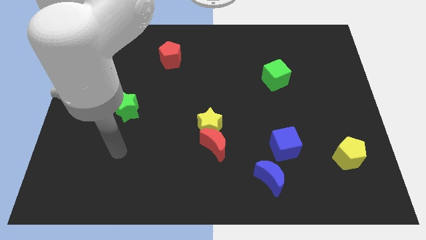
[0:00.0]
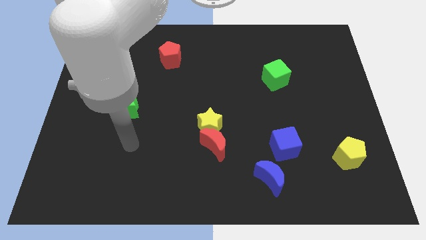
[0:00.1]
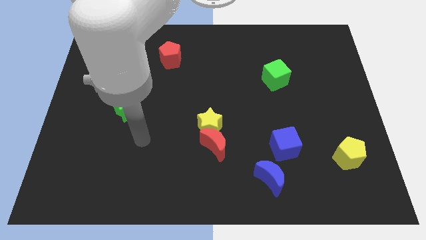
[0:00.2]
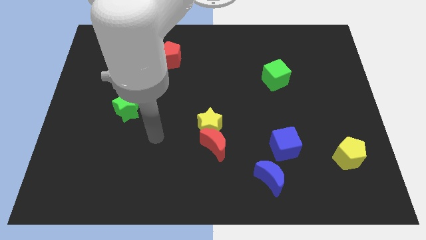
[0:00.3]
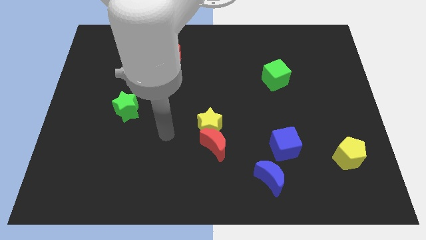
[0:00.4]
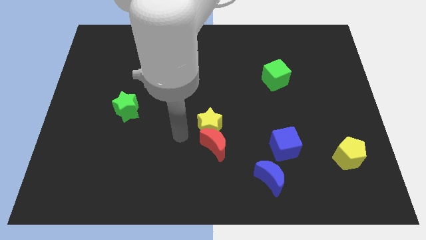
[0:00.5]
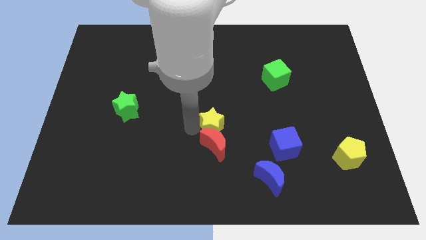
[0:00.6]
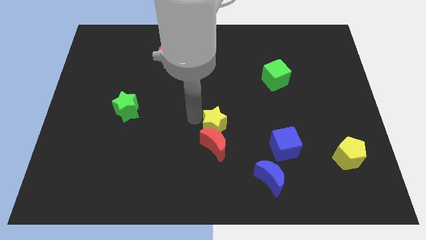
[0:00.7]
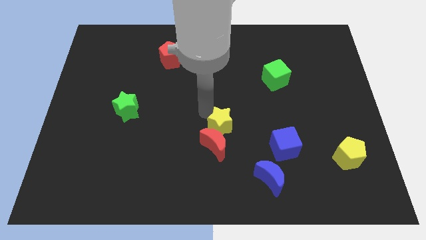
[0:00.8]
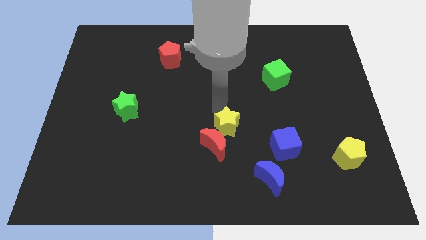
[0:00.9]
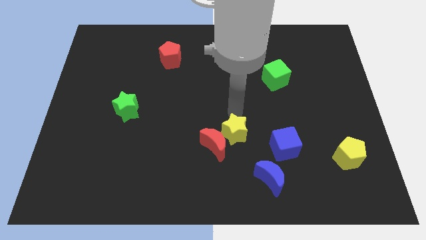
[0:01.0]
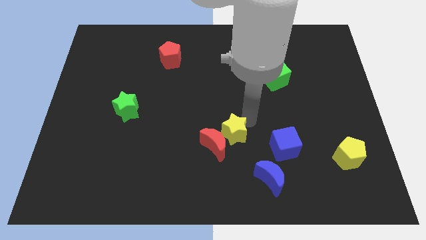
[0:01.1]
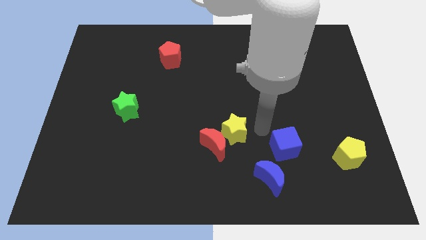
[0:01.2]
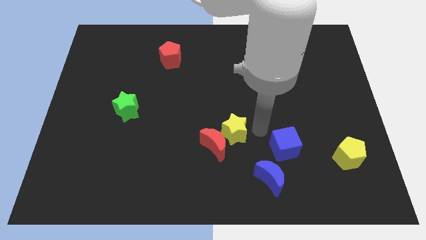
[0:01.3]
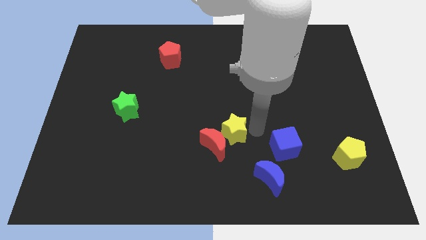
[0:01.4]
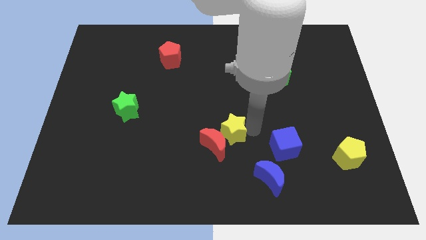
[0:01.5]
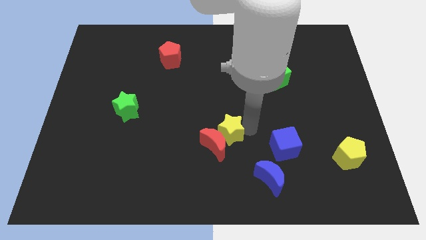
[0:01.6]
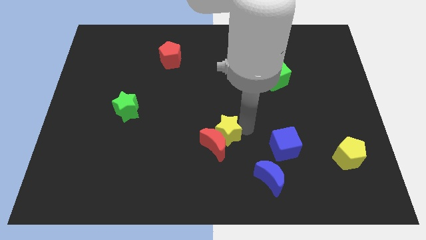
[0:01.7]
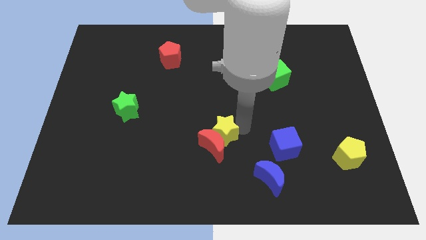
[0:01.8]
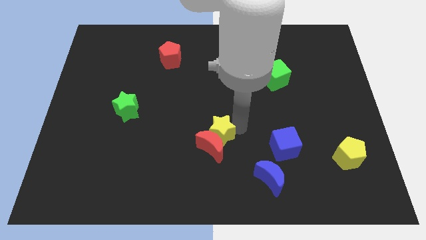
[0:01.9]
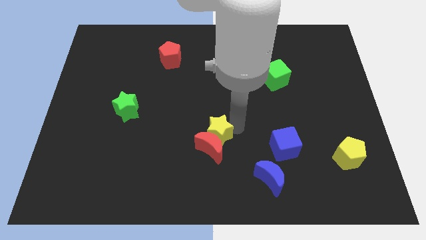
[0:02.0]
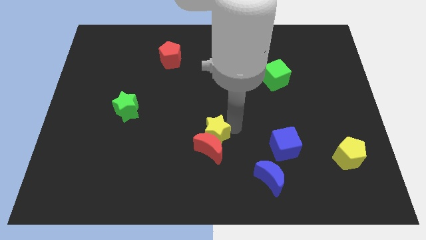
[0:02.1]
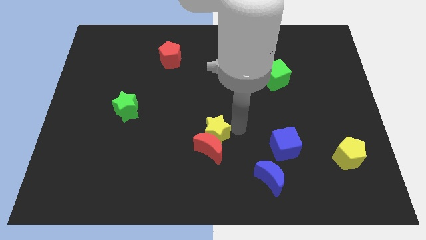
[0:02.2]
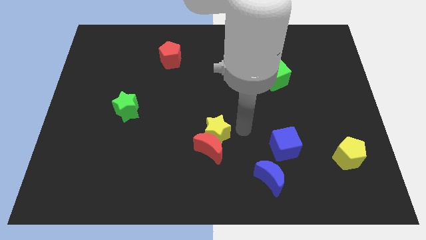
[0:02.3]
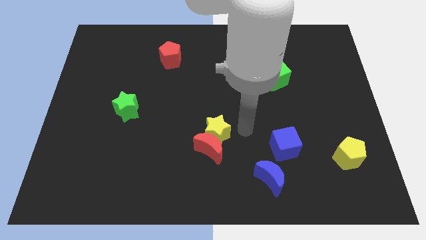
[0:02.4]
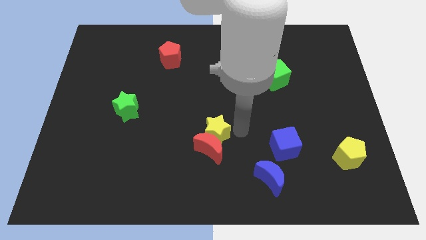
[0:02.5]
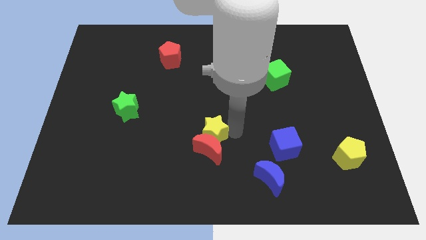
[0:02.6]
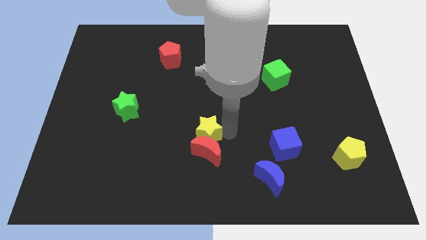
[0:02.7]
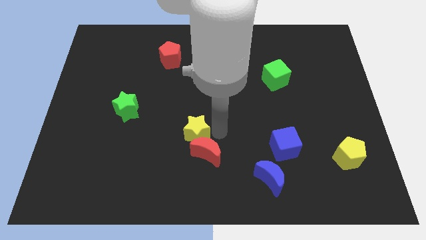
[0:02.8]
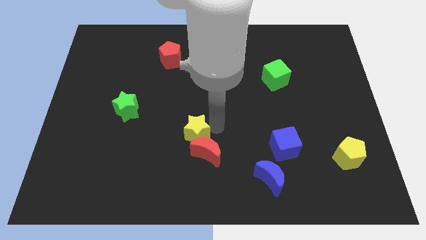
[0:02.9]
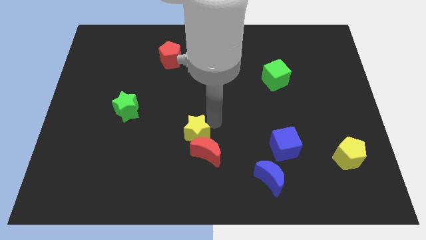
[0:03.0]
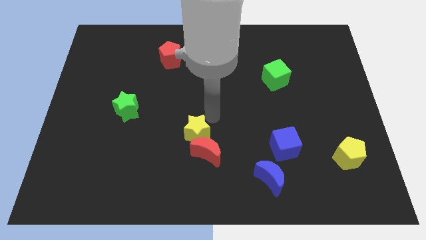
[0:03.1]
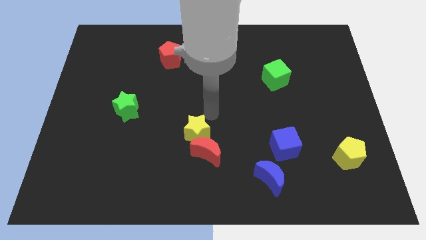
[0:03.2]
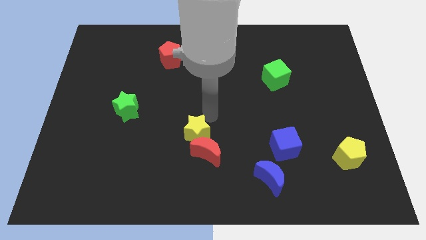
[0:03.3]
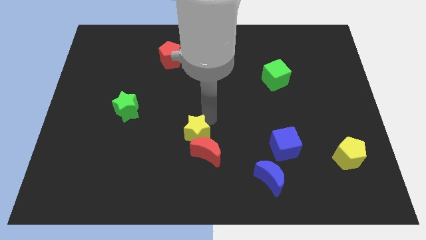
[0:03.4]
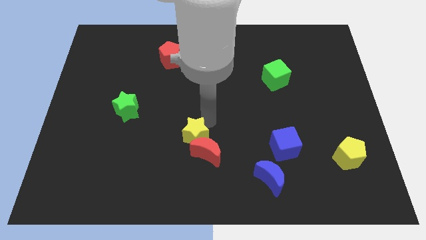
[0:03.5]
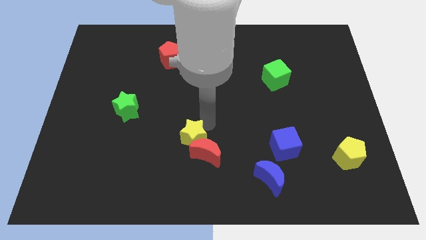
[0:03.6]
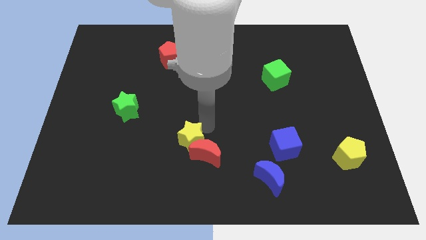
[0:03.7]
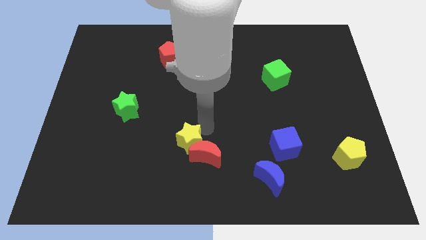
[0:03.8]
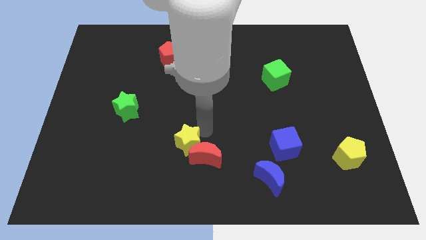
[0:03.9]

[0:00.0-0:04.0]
slide the yellow star somewhat diagonally downwards and left

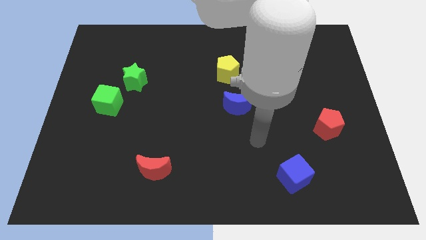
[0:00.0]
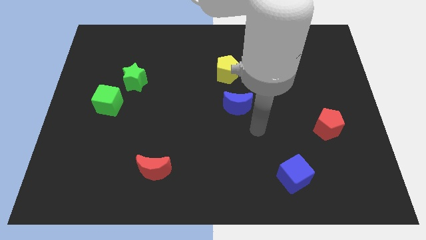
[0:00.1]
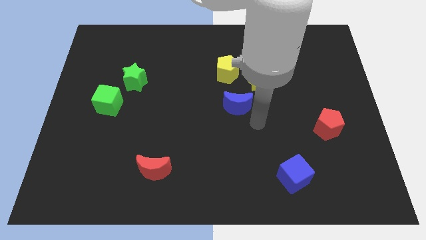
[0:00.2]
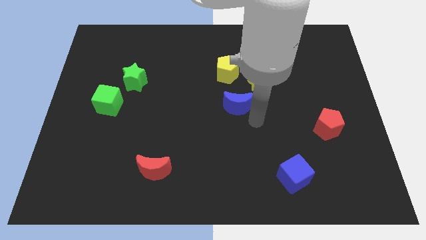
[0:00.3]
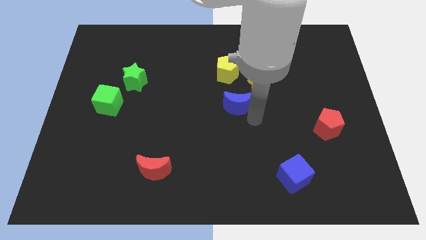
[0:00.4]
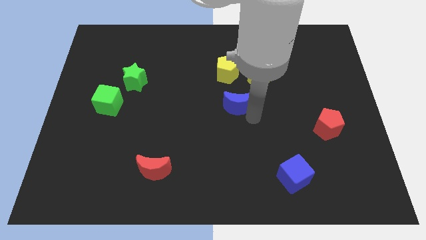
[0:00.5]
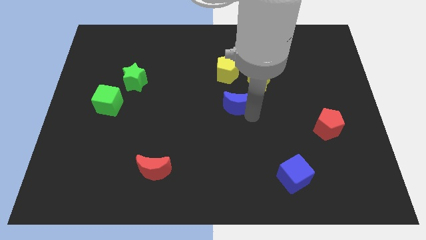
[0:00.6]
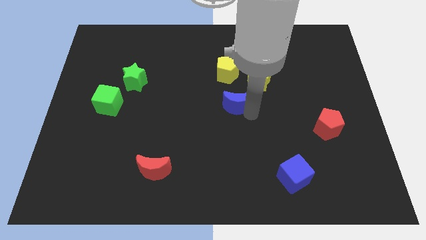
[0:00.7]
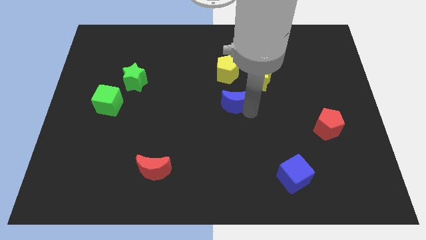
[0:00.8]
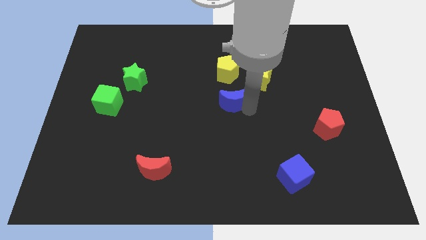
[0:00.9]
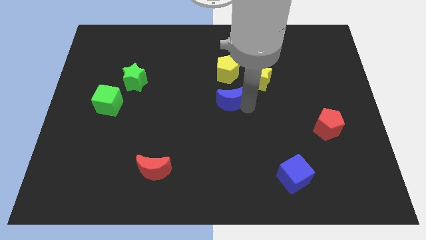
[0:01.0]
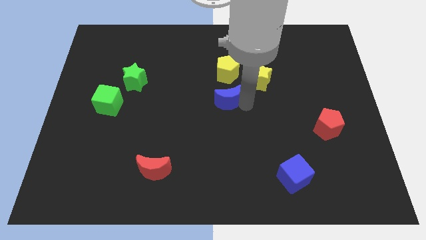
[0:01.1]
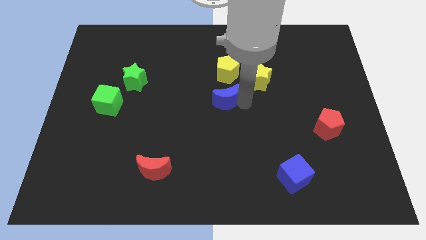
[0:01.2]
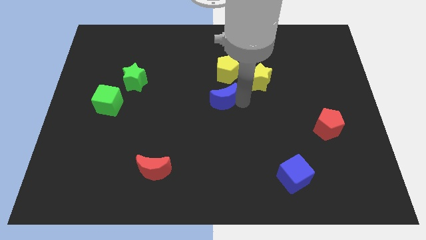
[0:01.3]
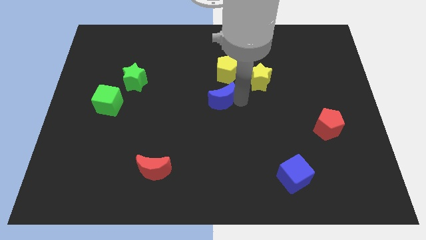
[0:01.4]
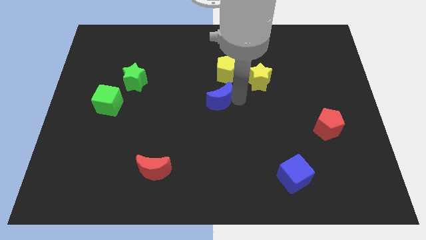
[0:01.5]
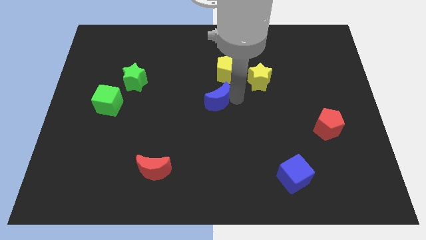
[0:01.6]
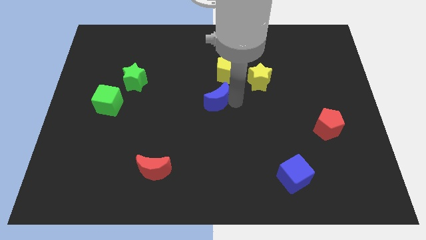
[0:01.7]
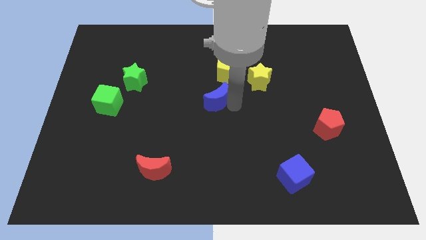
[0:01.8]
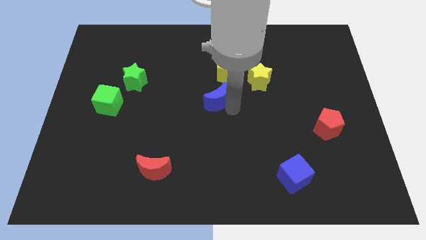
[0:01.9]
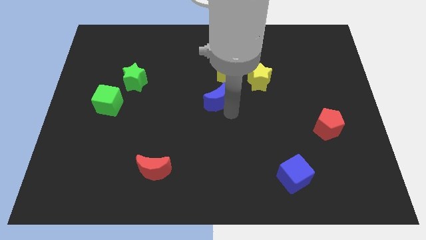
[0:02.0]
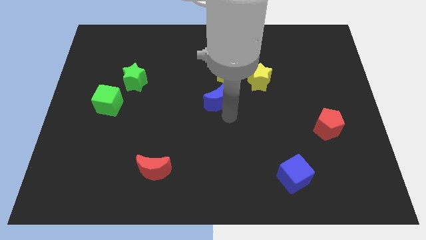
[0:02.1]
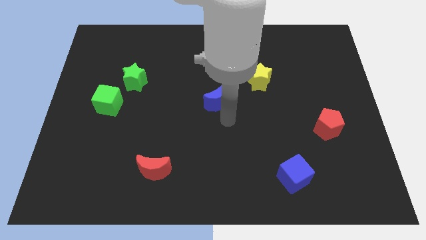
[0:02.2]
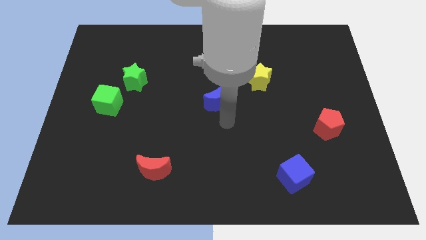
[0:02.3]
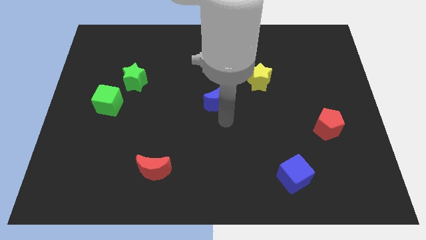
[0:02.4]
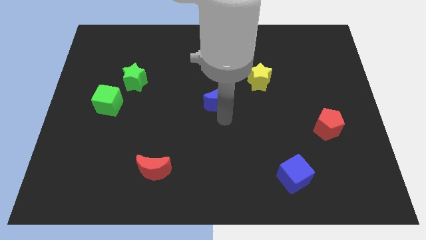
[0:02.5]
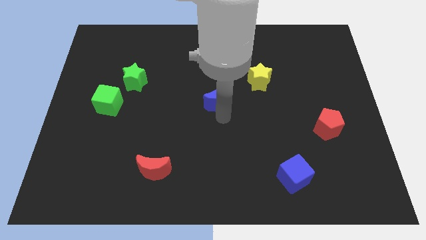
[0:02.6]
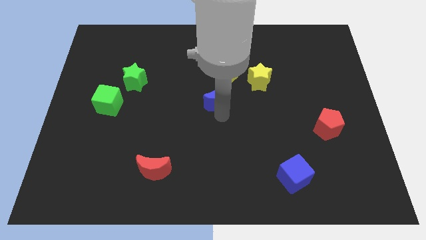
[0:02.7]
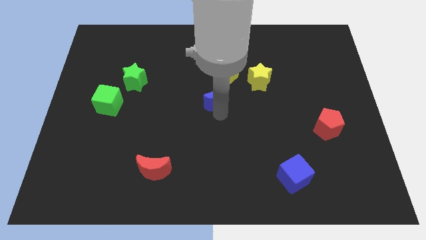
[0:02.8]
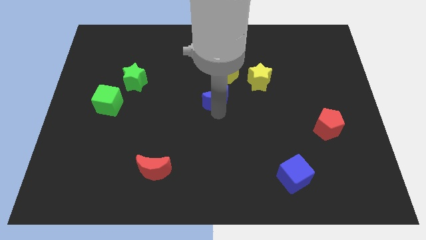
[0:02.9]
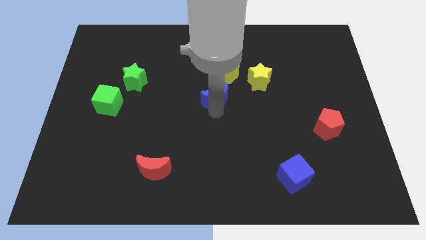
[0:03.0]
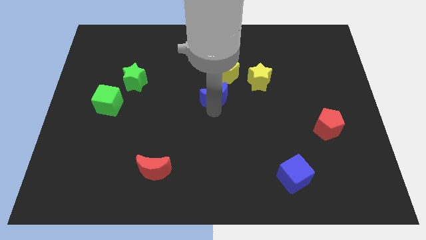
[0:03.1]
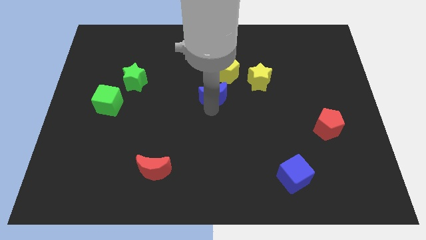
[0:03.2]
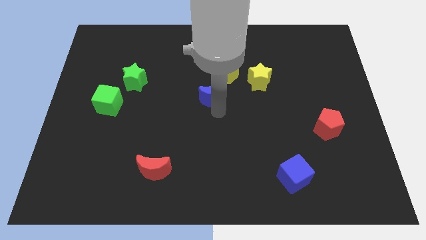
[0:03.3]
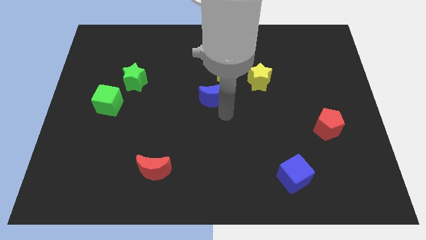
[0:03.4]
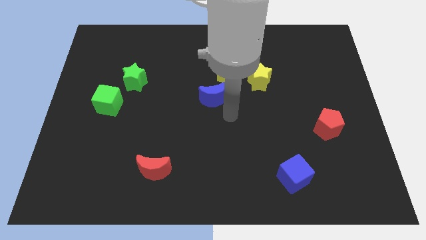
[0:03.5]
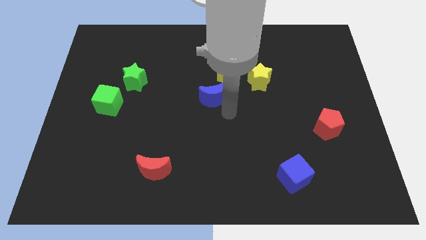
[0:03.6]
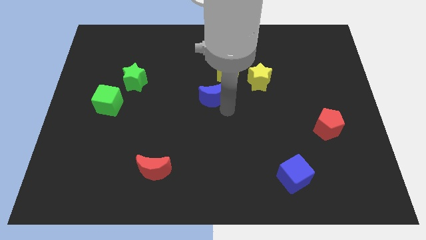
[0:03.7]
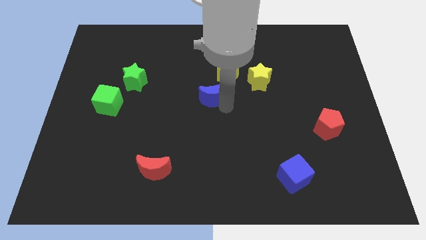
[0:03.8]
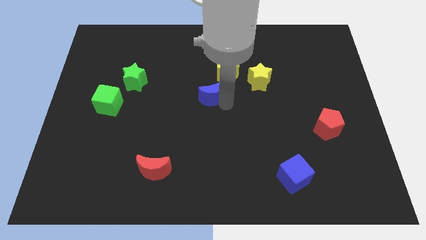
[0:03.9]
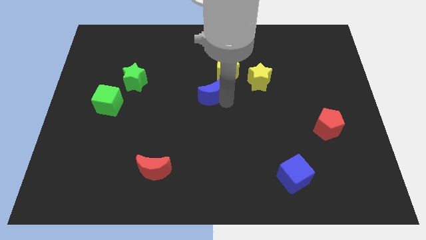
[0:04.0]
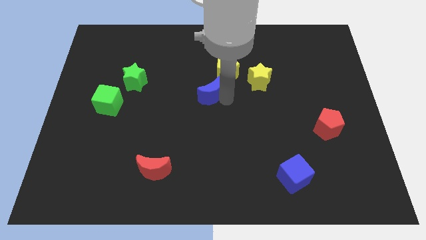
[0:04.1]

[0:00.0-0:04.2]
slightly move the blue moon up and to the left diagonally

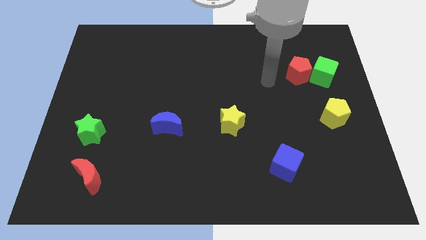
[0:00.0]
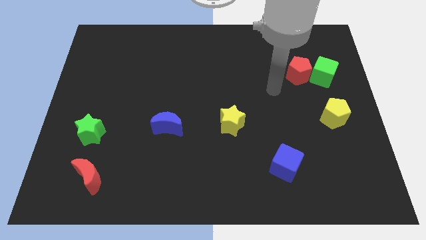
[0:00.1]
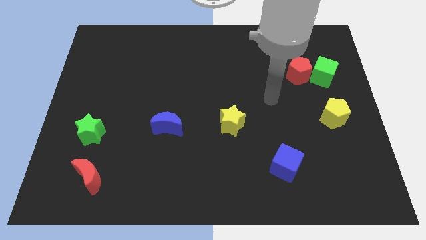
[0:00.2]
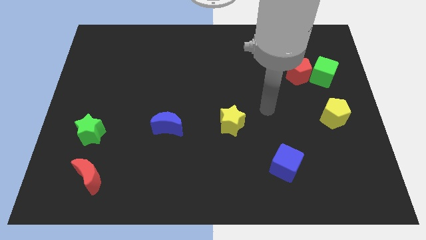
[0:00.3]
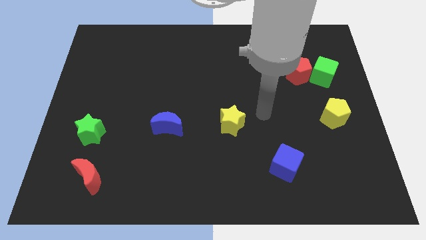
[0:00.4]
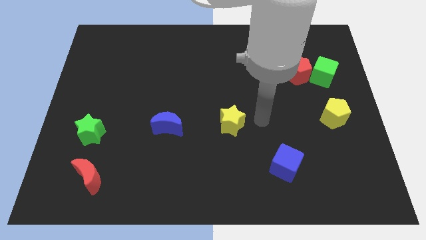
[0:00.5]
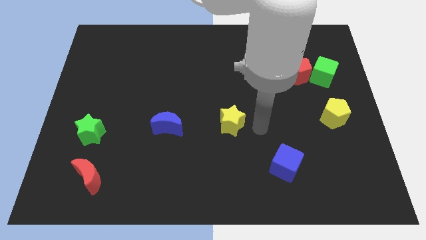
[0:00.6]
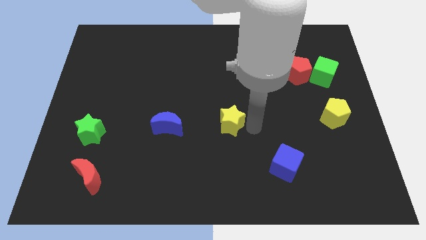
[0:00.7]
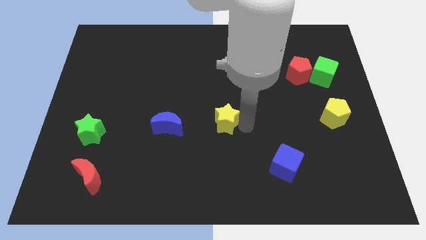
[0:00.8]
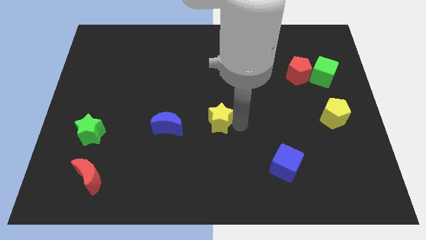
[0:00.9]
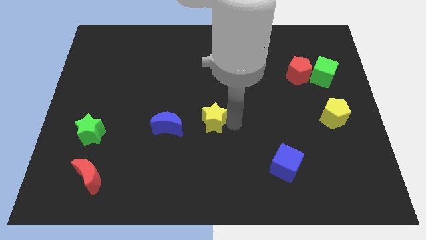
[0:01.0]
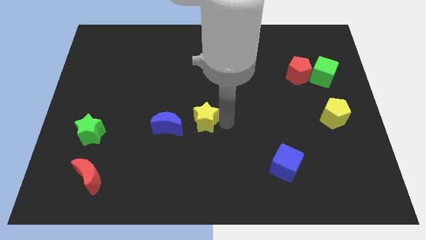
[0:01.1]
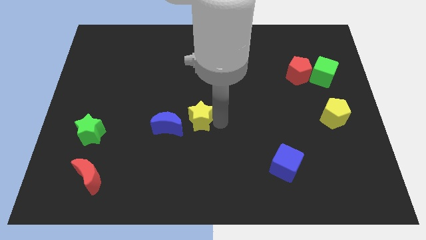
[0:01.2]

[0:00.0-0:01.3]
slightly slide the yellow star left
